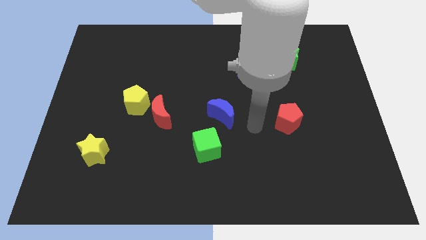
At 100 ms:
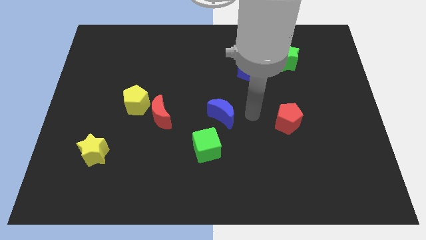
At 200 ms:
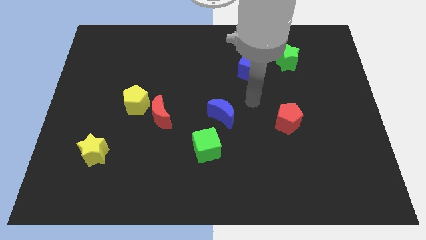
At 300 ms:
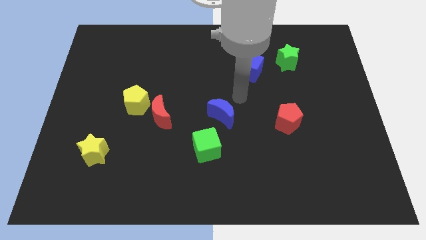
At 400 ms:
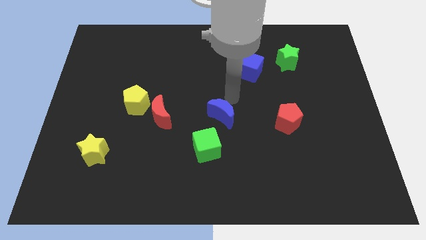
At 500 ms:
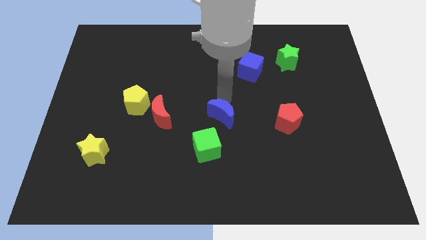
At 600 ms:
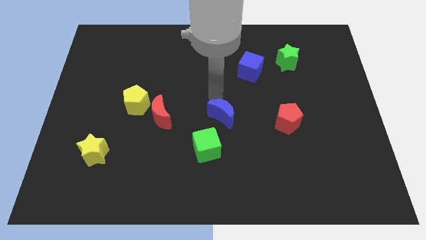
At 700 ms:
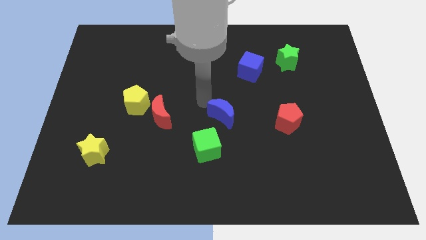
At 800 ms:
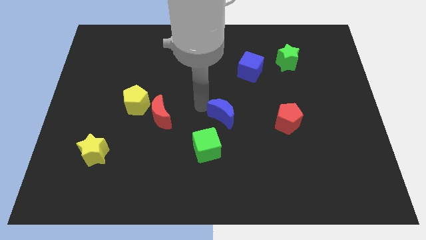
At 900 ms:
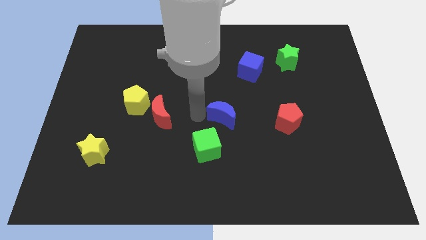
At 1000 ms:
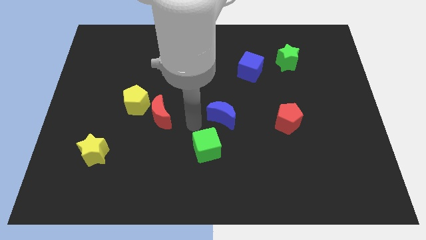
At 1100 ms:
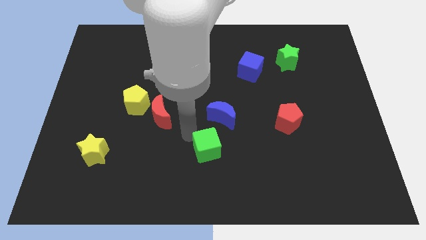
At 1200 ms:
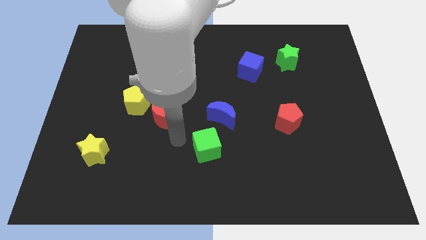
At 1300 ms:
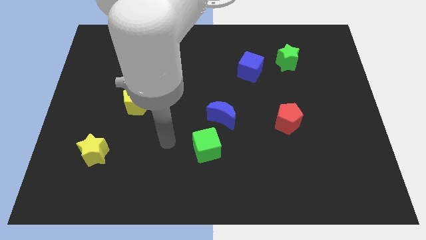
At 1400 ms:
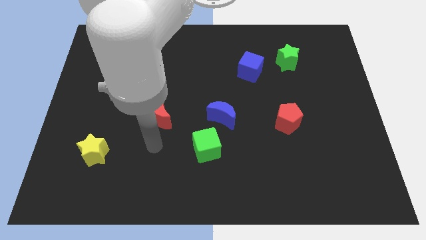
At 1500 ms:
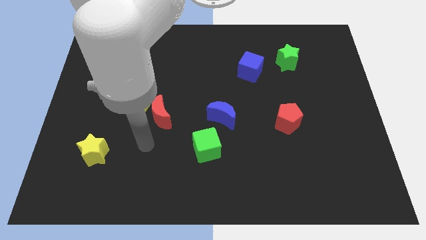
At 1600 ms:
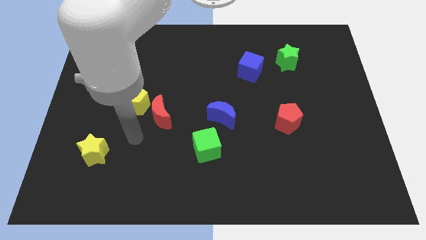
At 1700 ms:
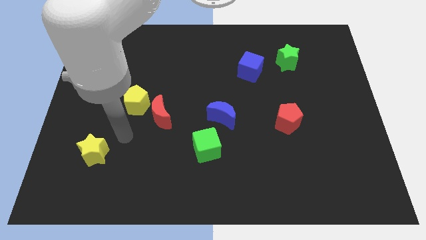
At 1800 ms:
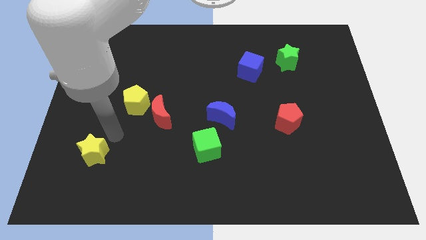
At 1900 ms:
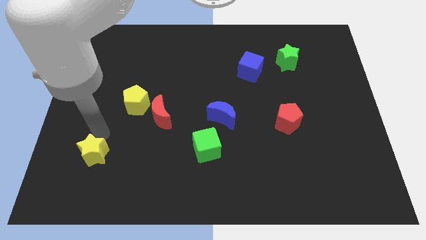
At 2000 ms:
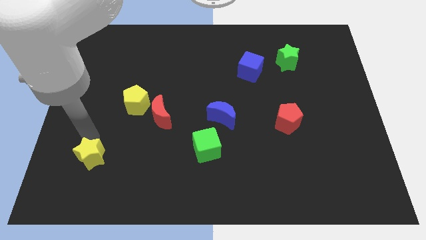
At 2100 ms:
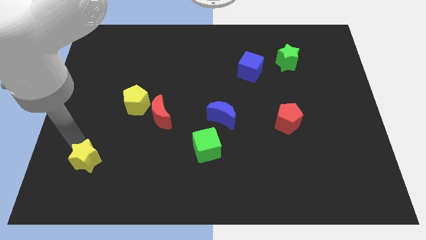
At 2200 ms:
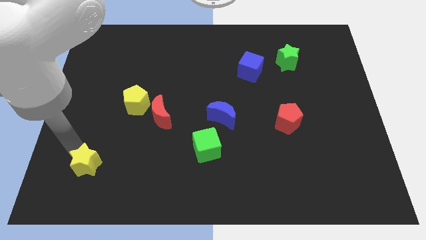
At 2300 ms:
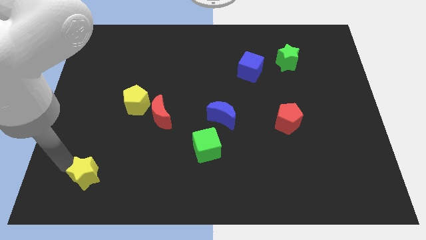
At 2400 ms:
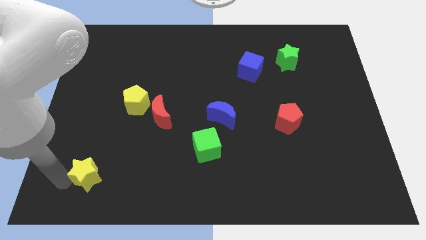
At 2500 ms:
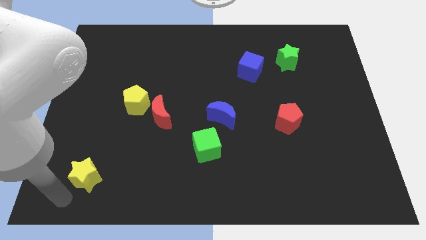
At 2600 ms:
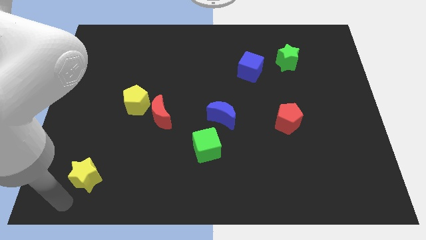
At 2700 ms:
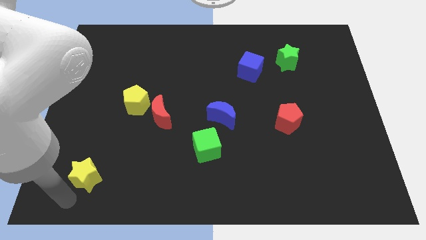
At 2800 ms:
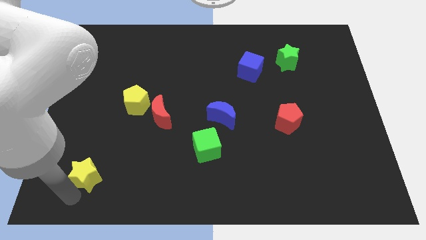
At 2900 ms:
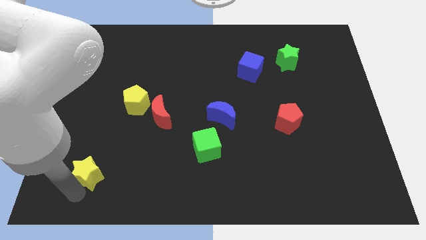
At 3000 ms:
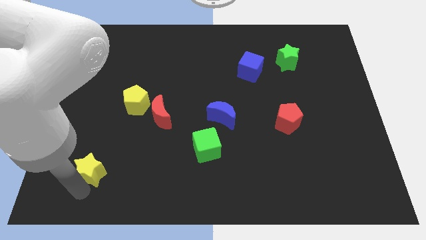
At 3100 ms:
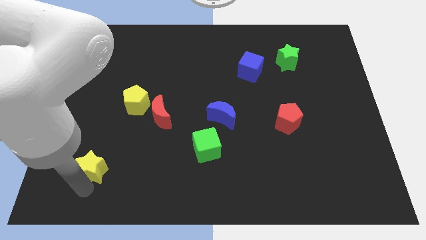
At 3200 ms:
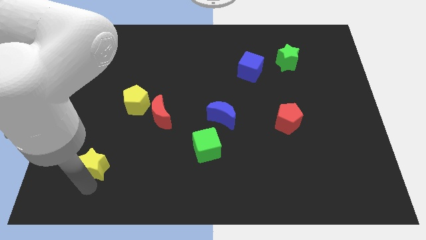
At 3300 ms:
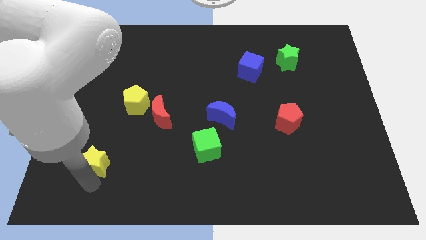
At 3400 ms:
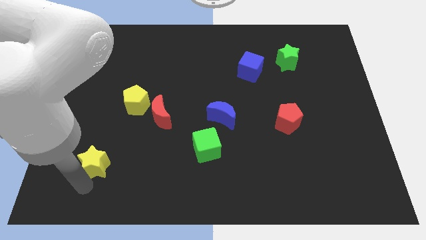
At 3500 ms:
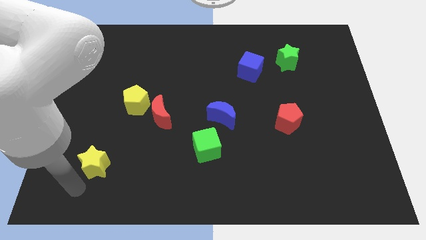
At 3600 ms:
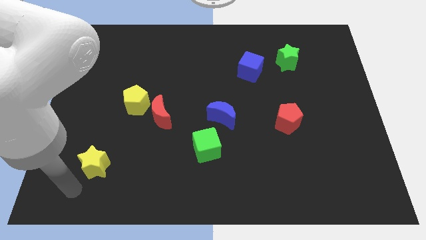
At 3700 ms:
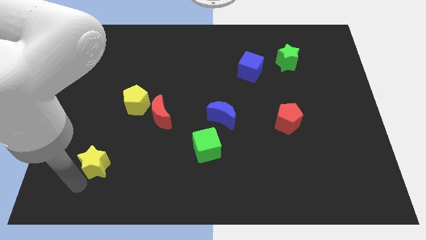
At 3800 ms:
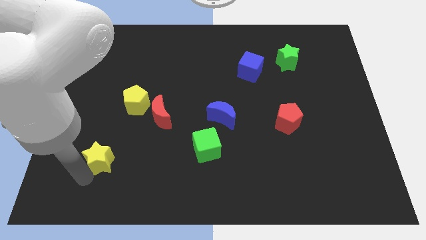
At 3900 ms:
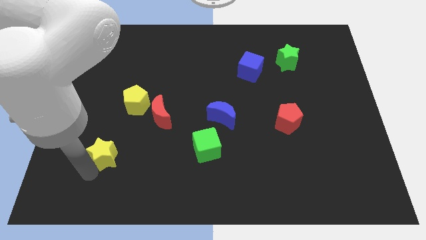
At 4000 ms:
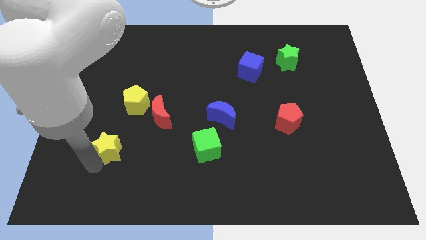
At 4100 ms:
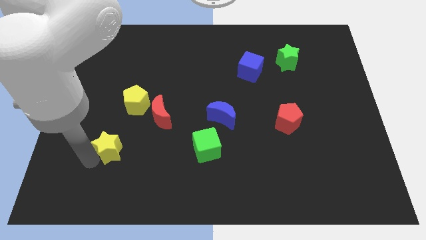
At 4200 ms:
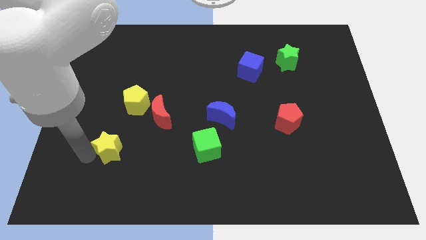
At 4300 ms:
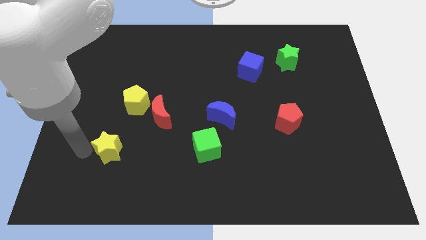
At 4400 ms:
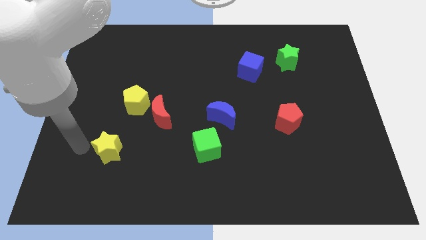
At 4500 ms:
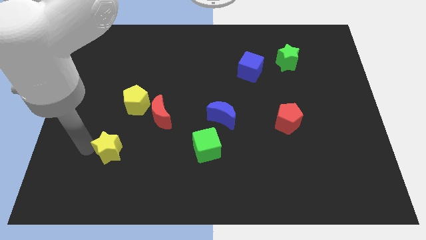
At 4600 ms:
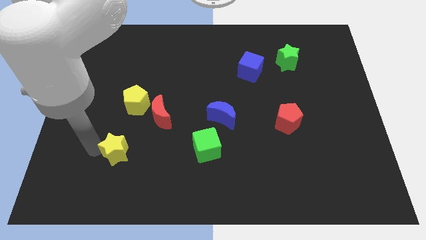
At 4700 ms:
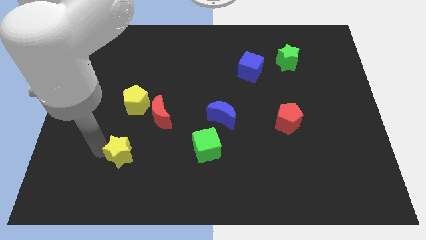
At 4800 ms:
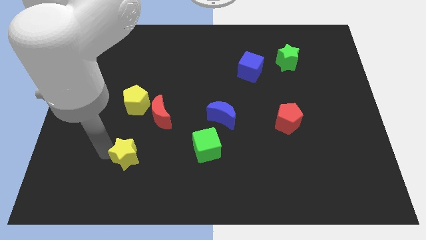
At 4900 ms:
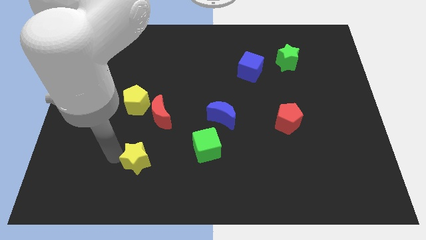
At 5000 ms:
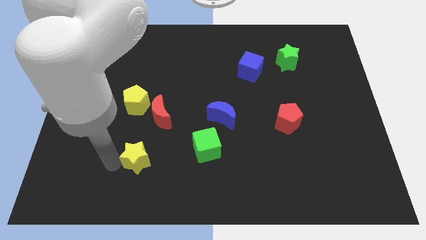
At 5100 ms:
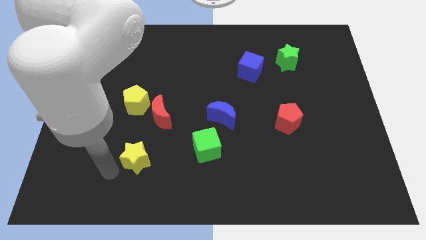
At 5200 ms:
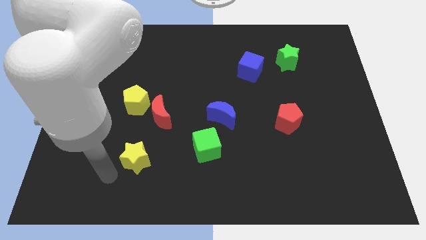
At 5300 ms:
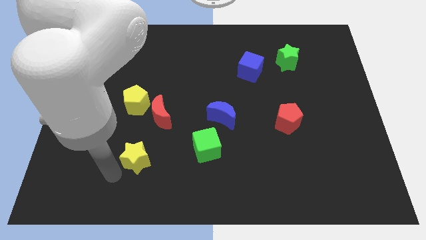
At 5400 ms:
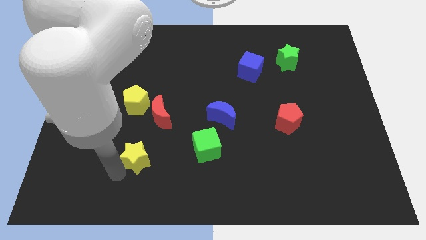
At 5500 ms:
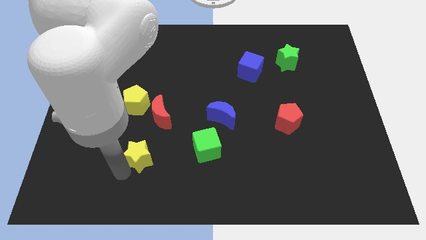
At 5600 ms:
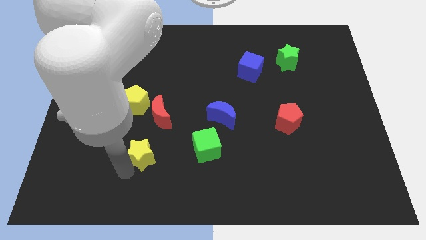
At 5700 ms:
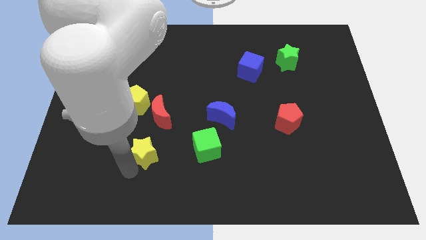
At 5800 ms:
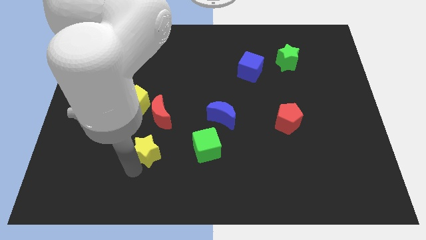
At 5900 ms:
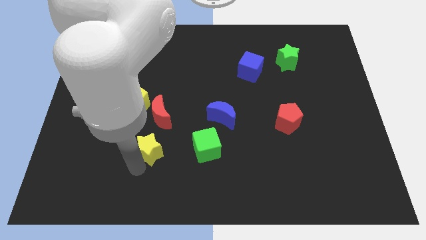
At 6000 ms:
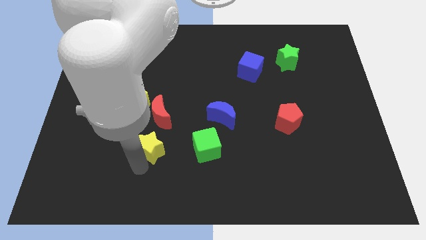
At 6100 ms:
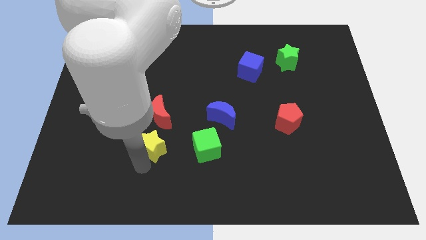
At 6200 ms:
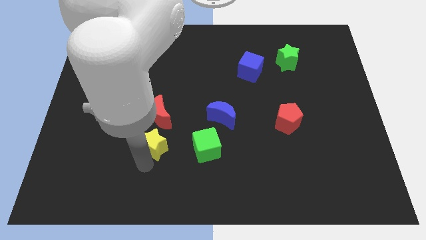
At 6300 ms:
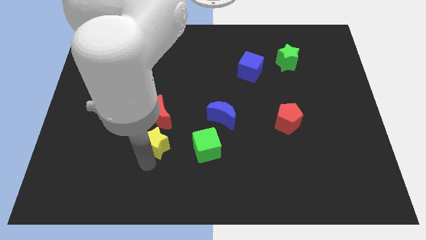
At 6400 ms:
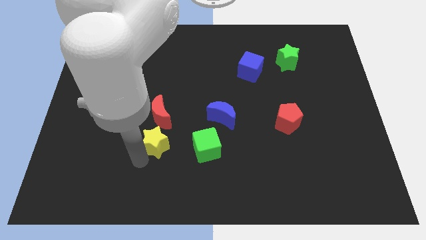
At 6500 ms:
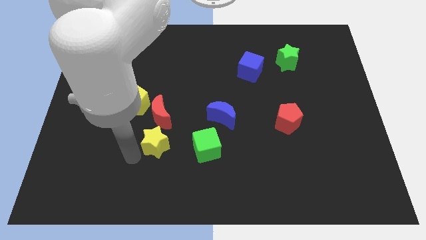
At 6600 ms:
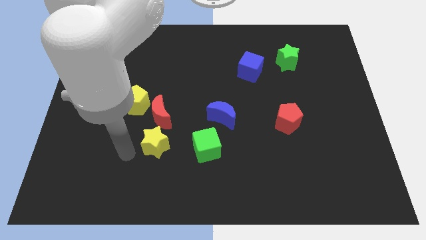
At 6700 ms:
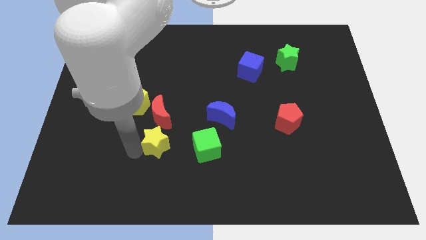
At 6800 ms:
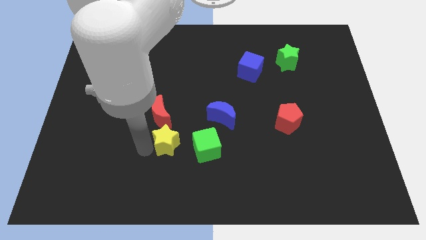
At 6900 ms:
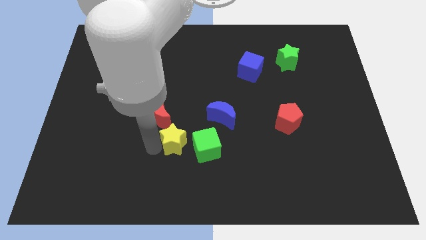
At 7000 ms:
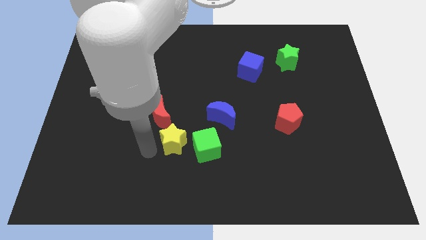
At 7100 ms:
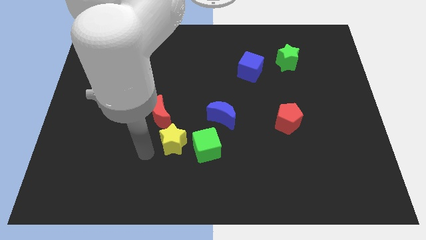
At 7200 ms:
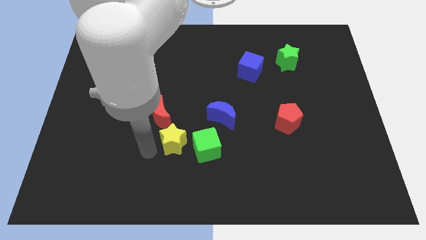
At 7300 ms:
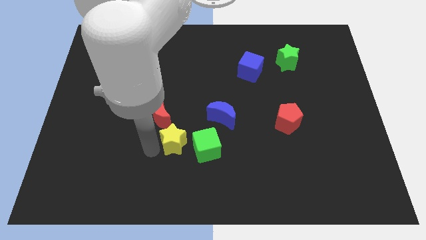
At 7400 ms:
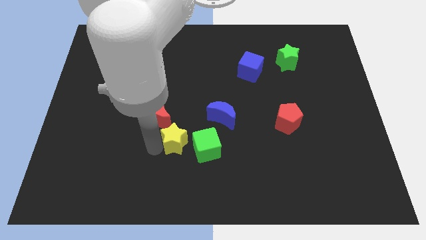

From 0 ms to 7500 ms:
put the yellow star to the bottom left of the blue moon
